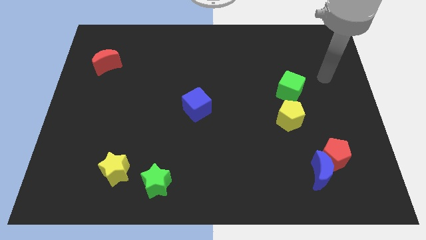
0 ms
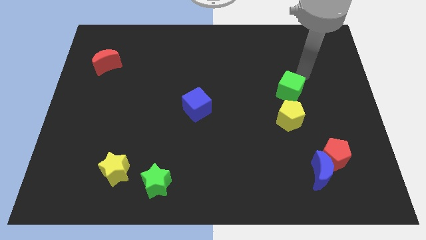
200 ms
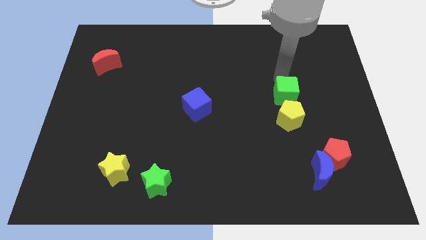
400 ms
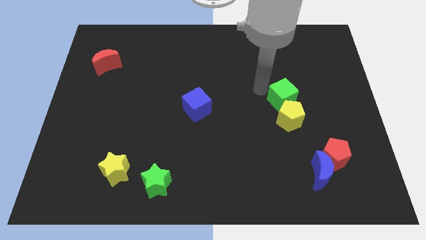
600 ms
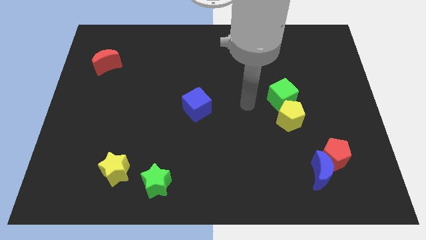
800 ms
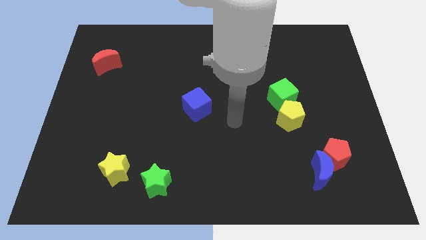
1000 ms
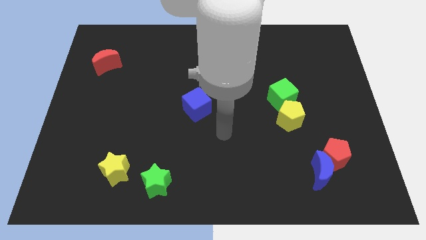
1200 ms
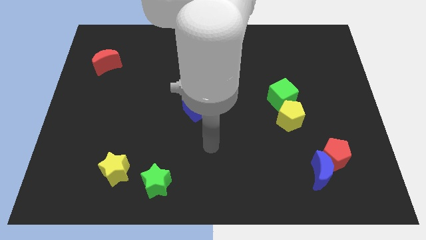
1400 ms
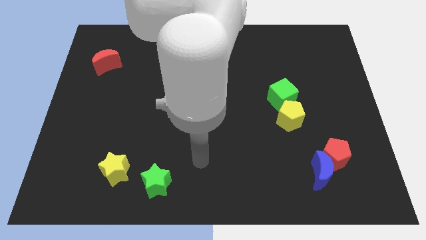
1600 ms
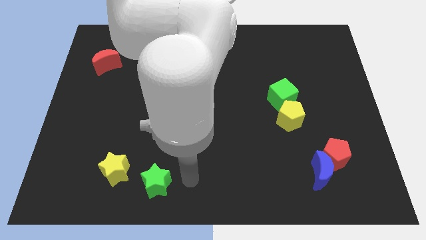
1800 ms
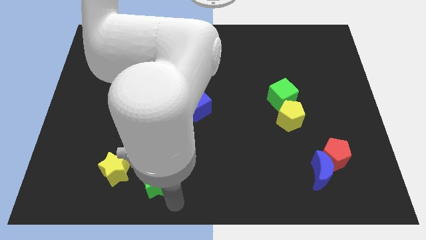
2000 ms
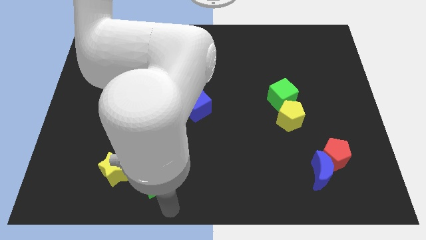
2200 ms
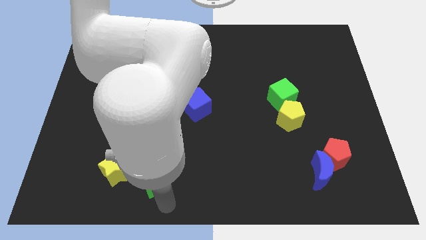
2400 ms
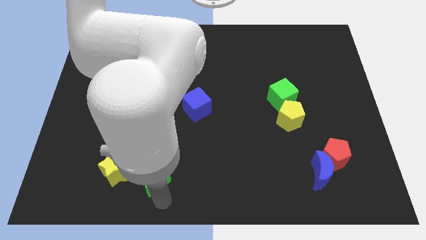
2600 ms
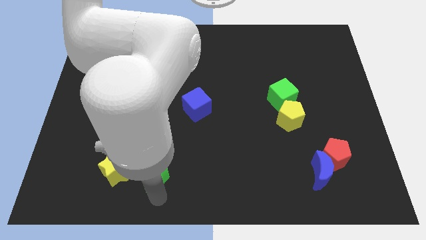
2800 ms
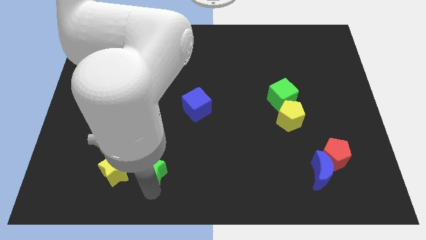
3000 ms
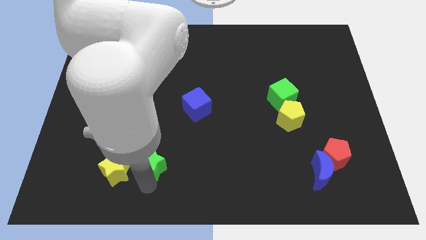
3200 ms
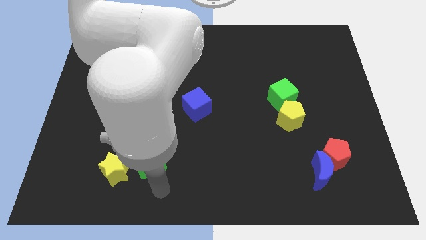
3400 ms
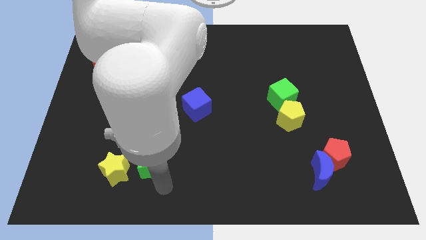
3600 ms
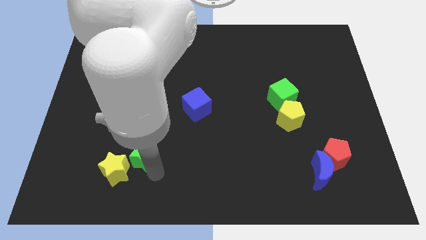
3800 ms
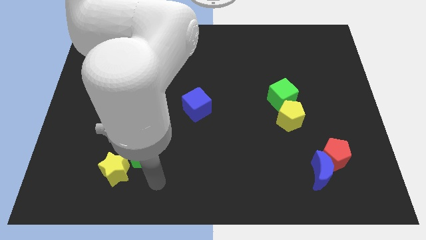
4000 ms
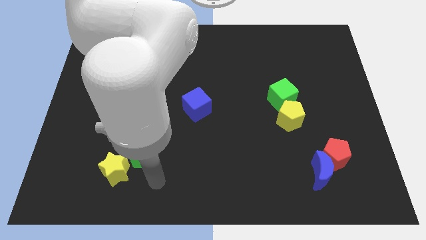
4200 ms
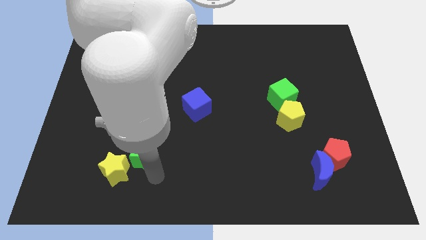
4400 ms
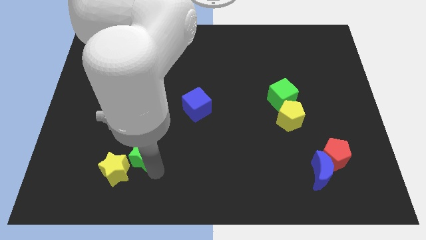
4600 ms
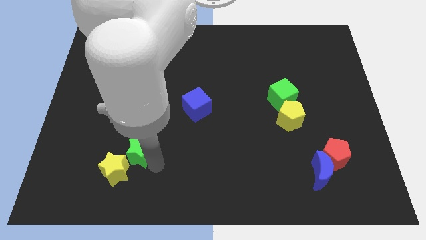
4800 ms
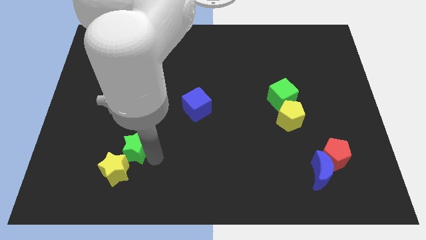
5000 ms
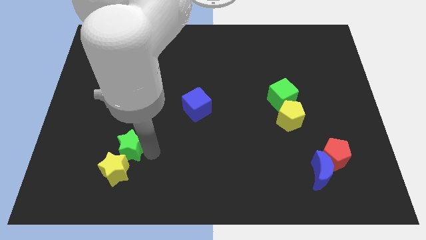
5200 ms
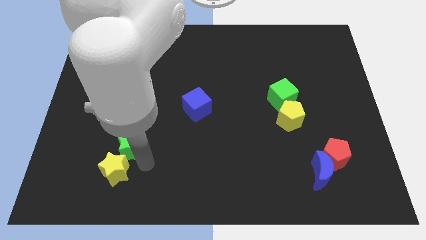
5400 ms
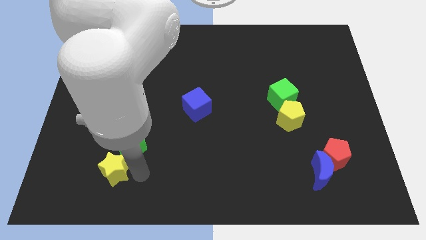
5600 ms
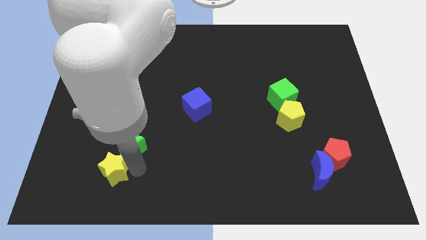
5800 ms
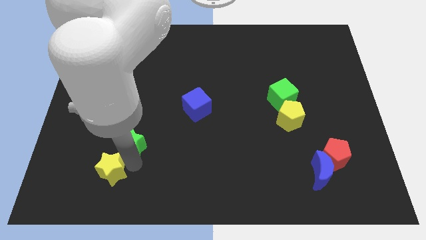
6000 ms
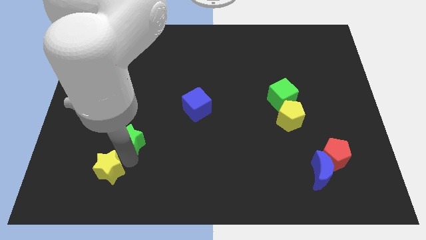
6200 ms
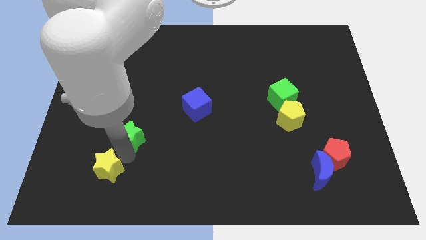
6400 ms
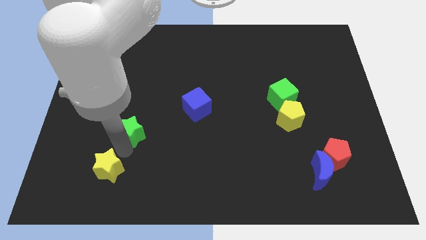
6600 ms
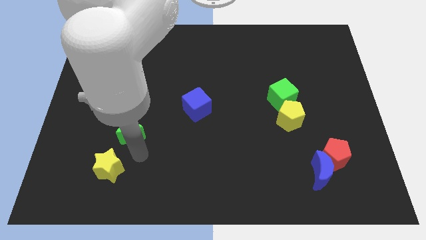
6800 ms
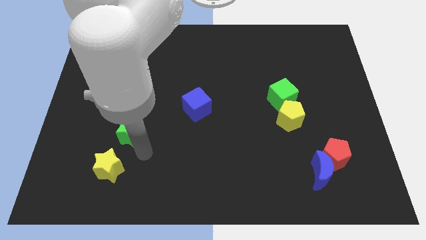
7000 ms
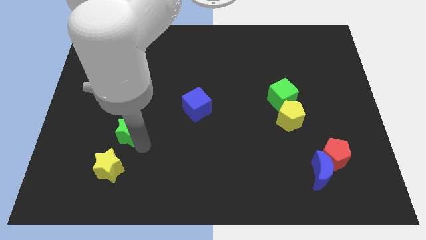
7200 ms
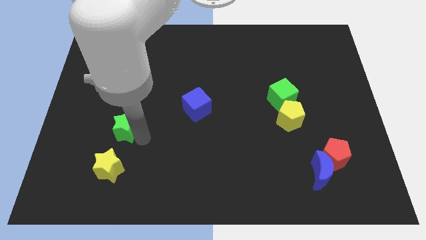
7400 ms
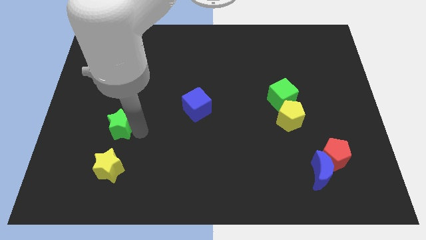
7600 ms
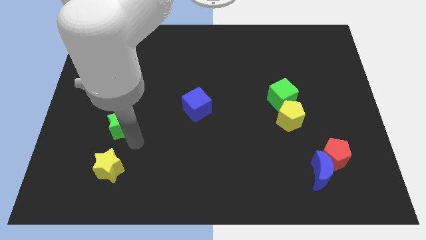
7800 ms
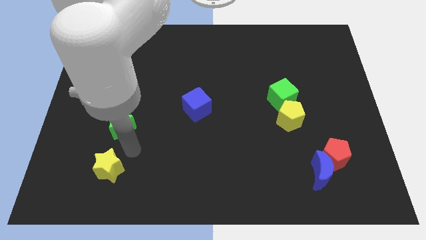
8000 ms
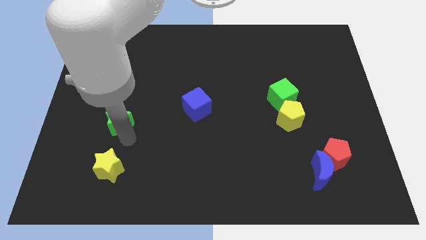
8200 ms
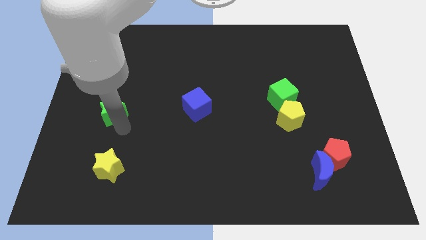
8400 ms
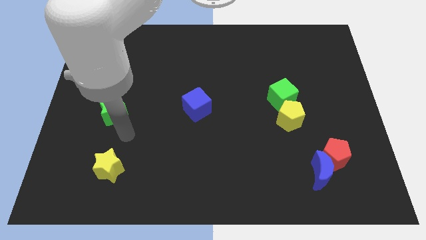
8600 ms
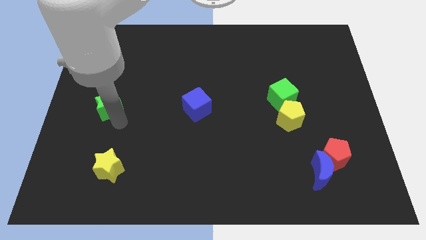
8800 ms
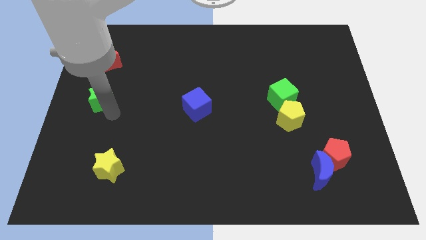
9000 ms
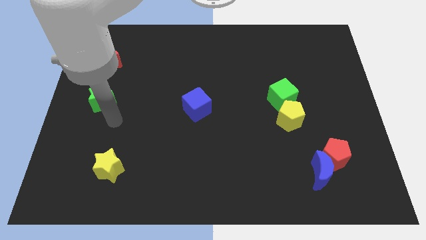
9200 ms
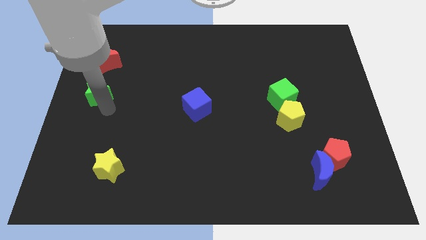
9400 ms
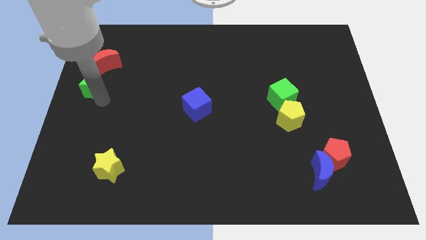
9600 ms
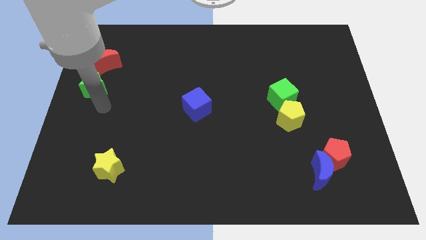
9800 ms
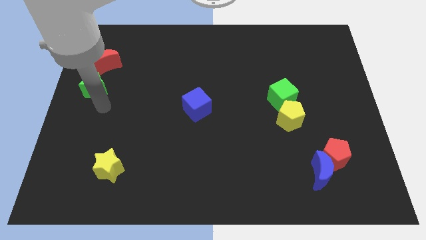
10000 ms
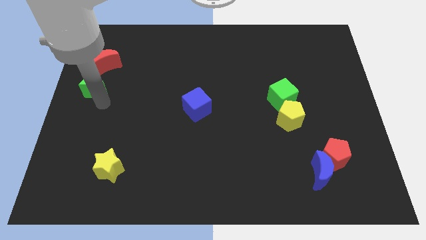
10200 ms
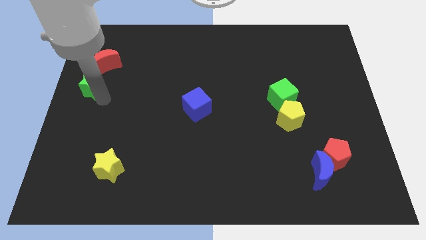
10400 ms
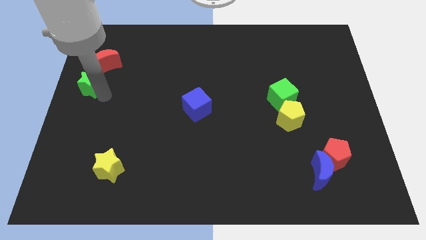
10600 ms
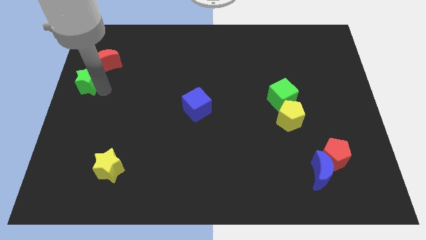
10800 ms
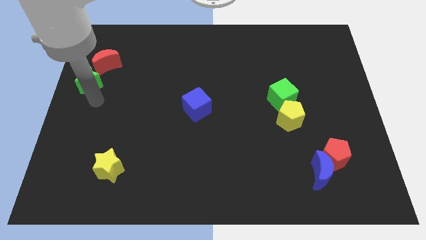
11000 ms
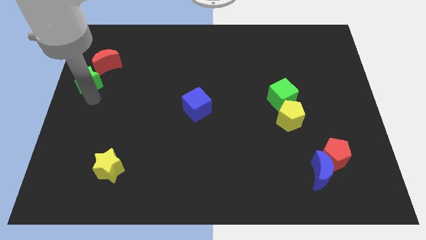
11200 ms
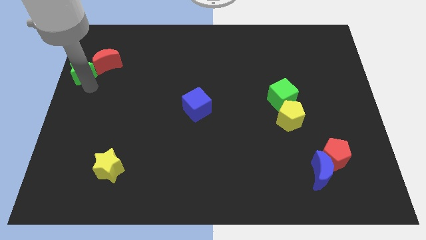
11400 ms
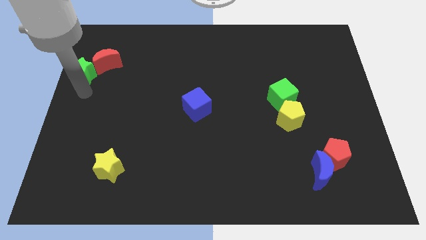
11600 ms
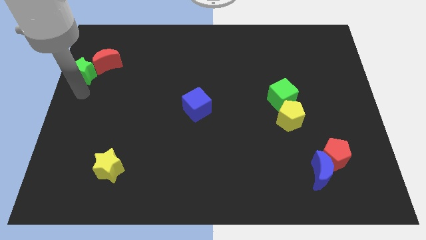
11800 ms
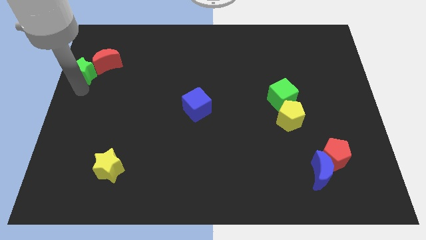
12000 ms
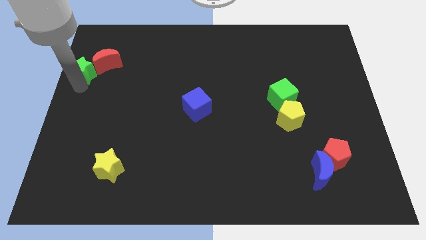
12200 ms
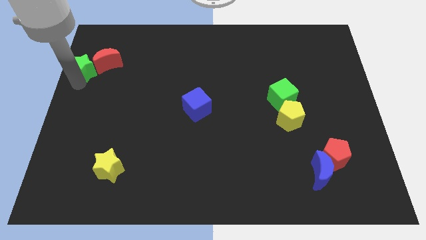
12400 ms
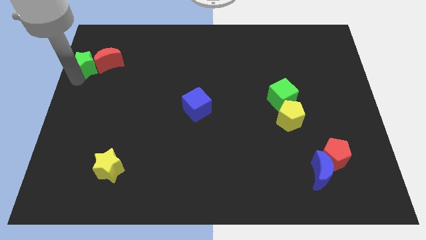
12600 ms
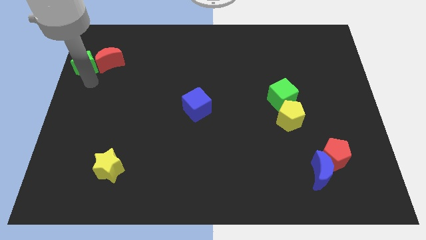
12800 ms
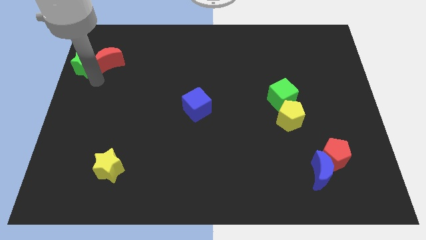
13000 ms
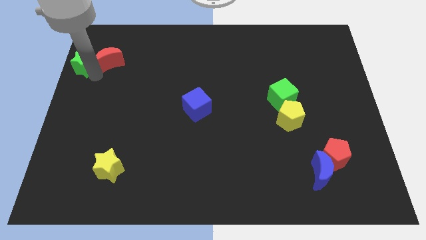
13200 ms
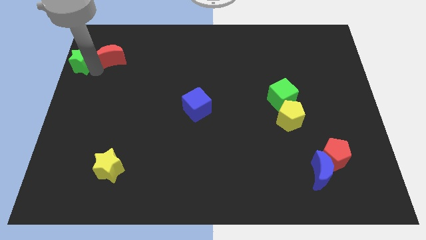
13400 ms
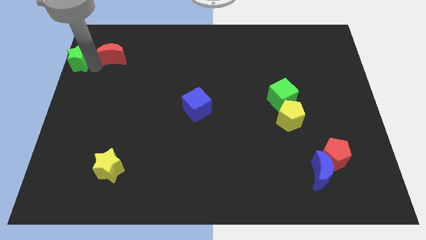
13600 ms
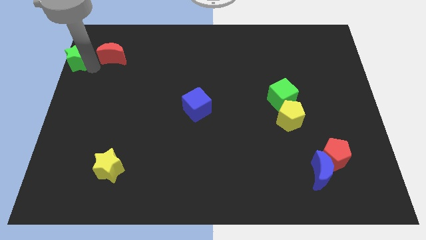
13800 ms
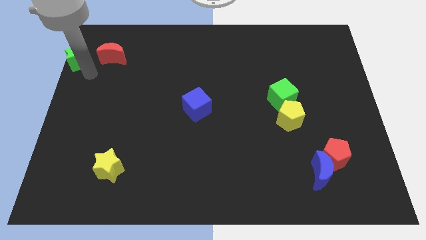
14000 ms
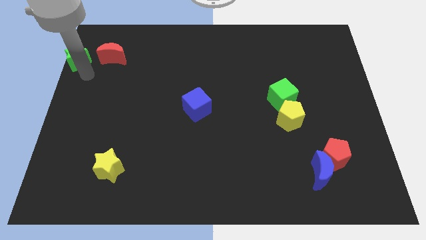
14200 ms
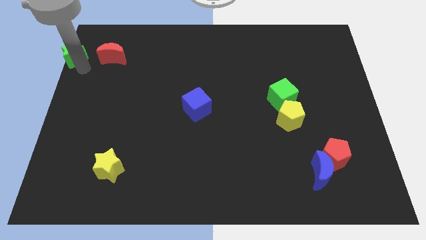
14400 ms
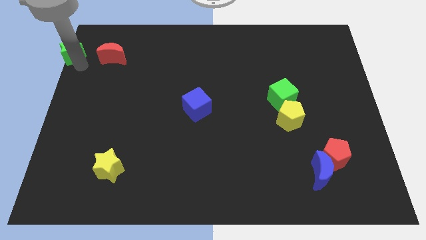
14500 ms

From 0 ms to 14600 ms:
push the green star to the top left corner
